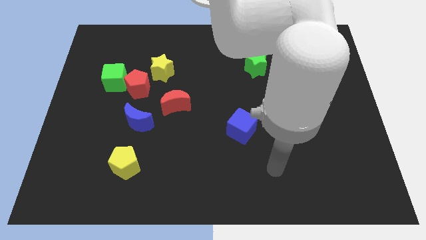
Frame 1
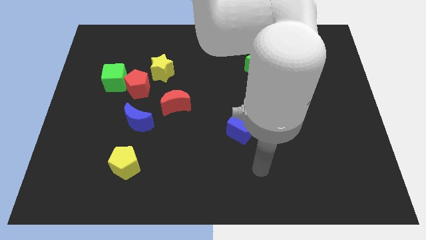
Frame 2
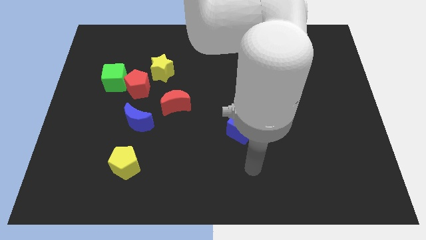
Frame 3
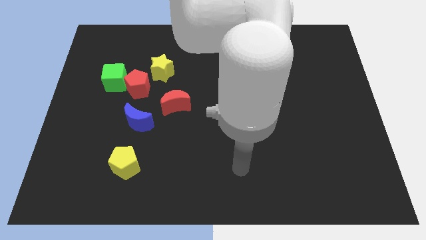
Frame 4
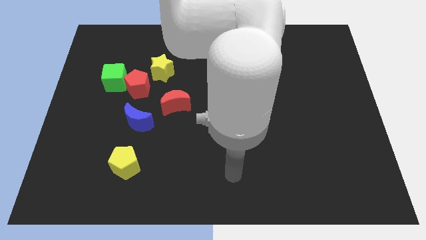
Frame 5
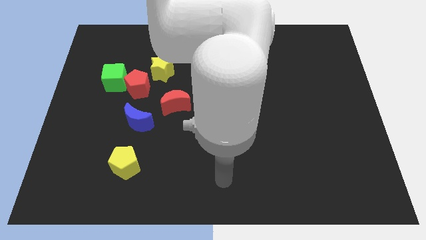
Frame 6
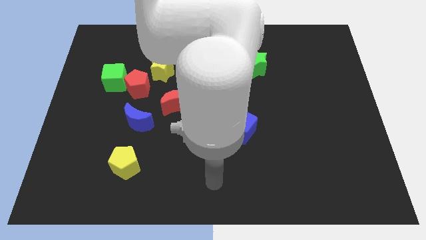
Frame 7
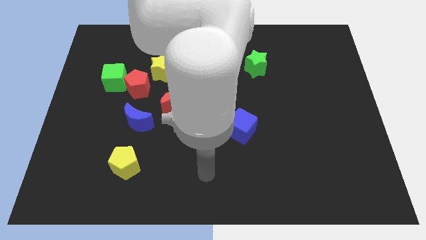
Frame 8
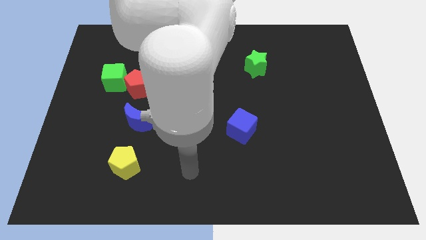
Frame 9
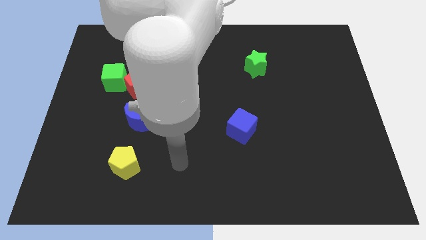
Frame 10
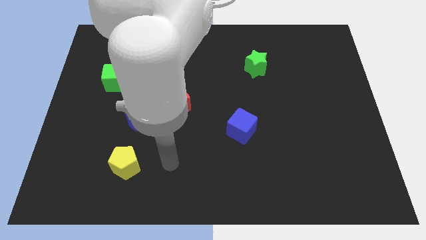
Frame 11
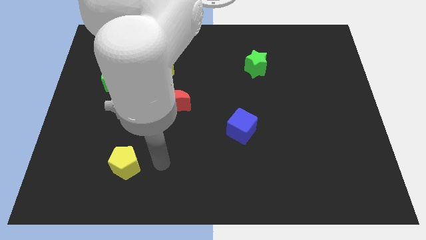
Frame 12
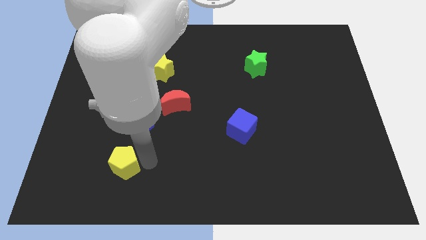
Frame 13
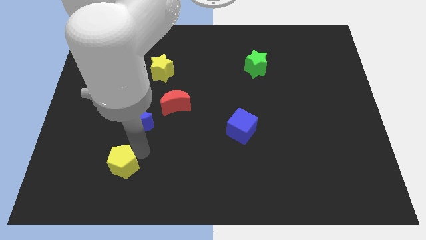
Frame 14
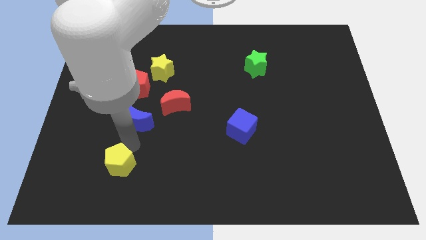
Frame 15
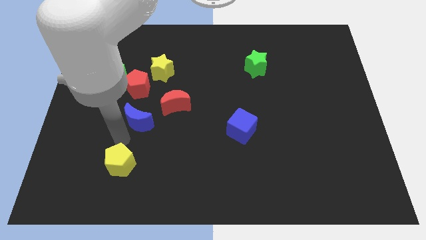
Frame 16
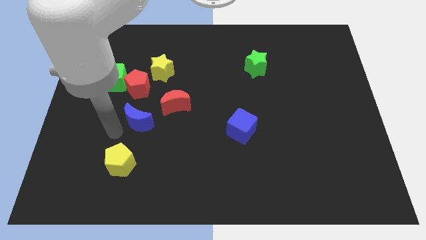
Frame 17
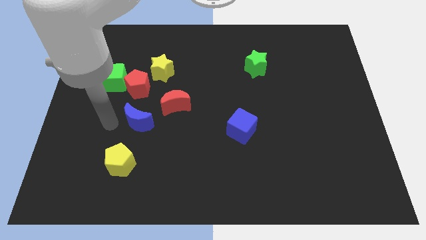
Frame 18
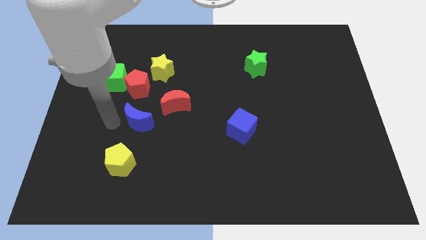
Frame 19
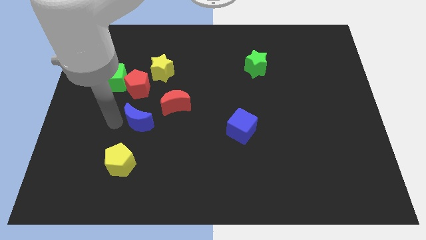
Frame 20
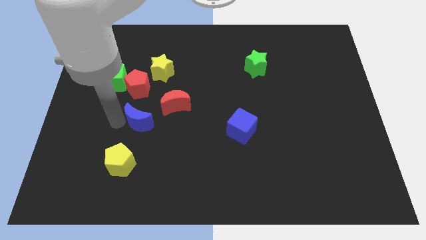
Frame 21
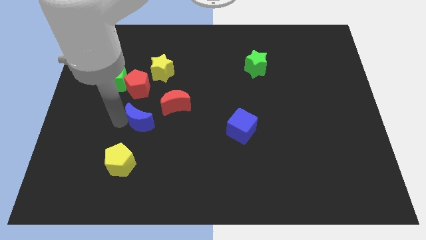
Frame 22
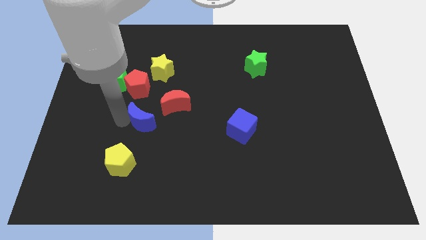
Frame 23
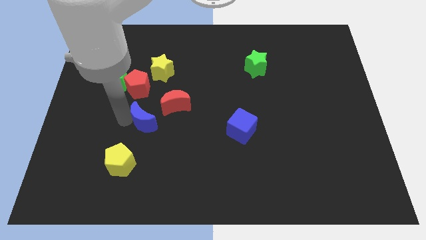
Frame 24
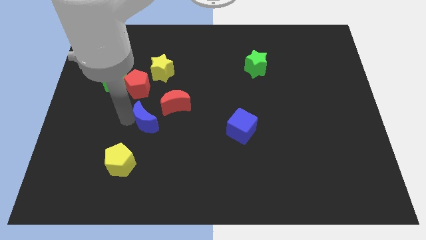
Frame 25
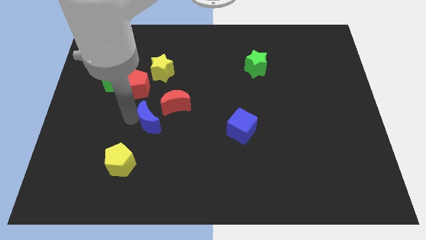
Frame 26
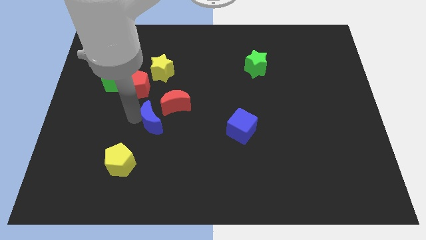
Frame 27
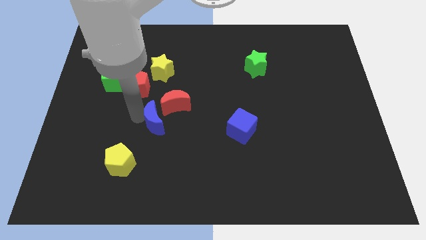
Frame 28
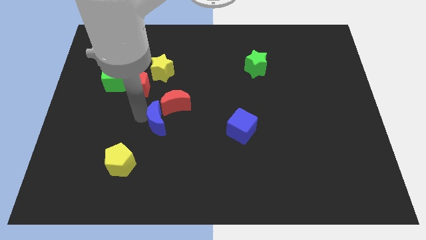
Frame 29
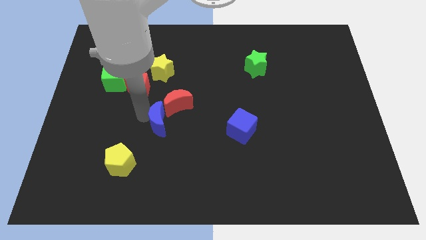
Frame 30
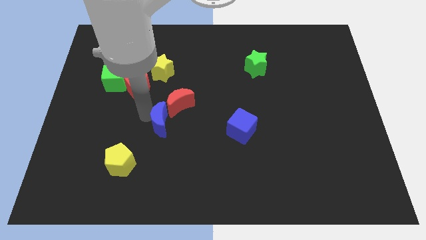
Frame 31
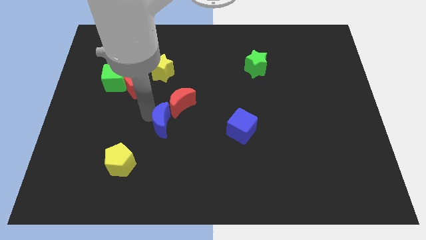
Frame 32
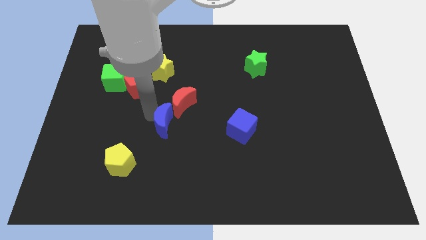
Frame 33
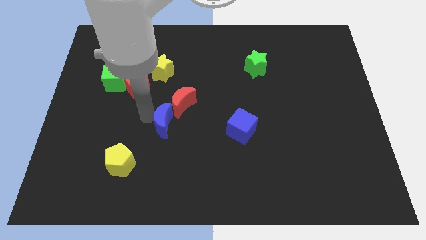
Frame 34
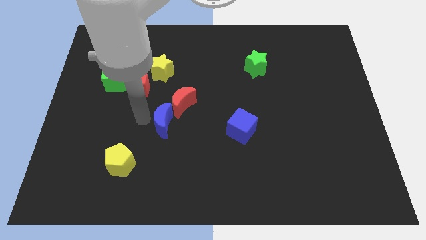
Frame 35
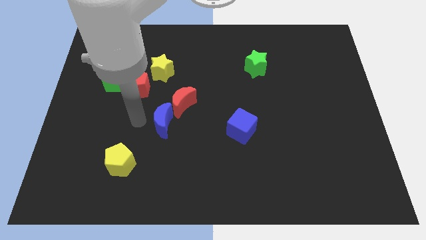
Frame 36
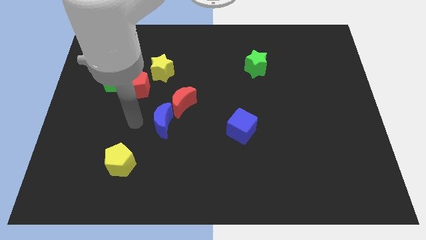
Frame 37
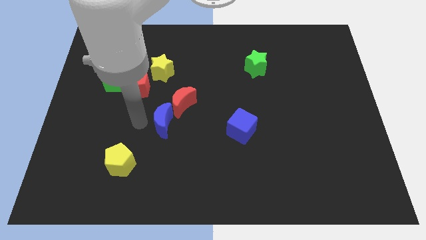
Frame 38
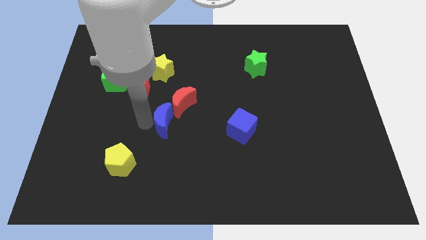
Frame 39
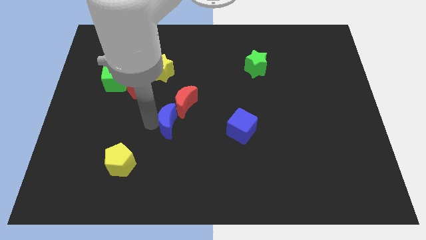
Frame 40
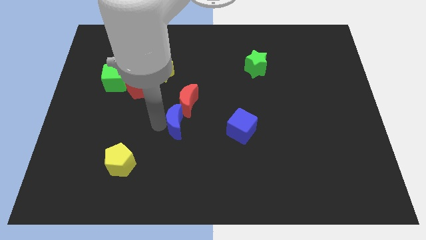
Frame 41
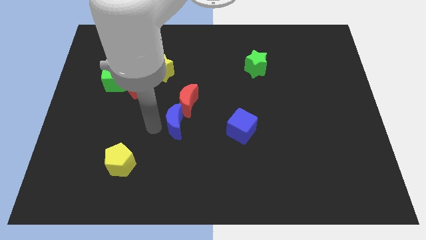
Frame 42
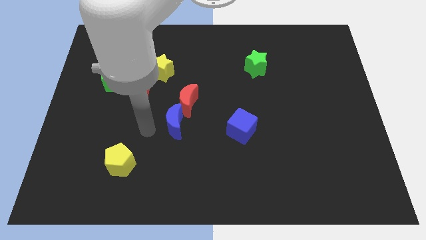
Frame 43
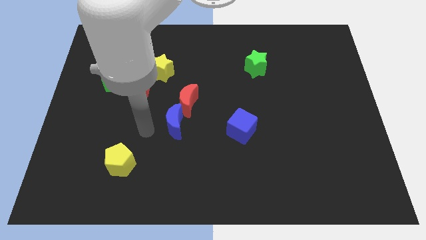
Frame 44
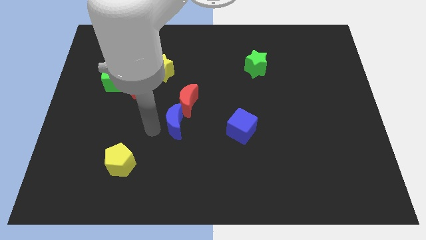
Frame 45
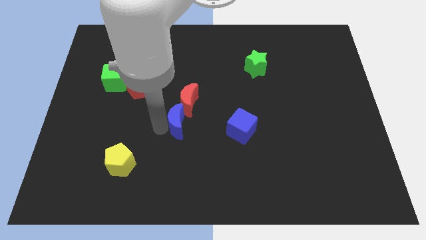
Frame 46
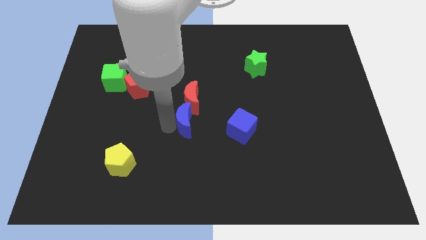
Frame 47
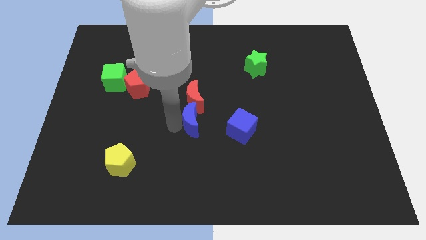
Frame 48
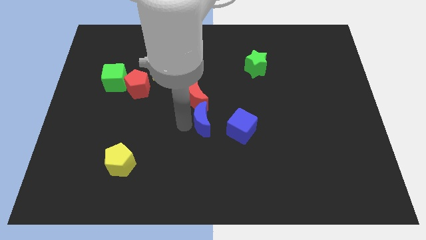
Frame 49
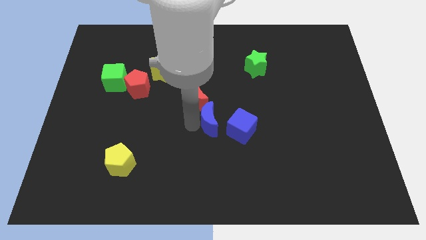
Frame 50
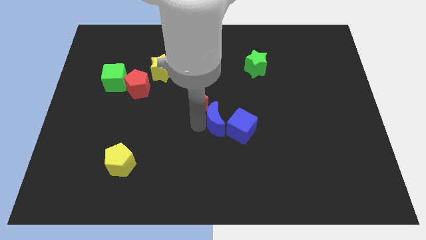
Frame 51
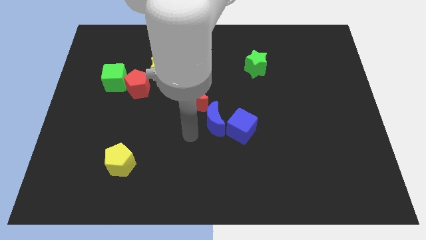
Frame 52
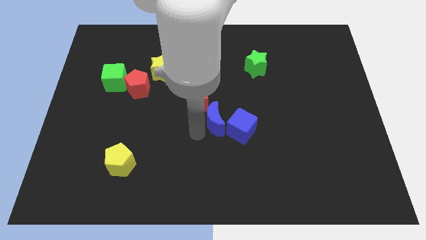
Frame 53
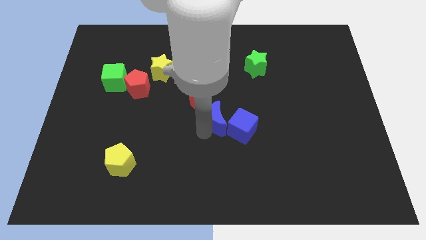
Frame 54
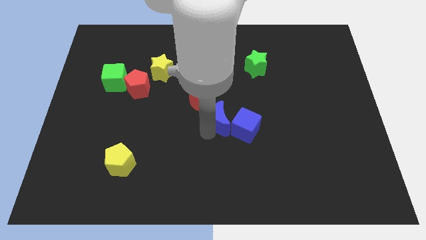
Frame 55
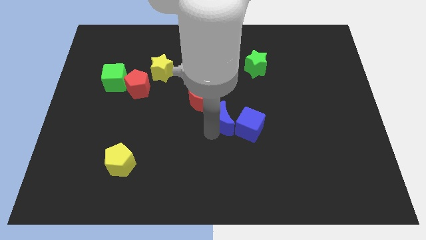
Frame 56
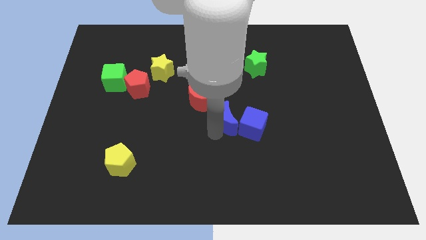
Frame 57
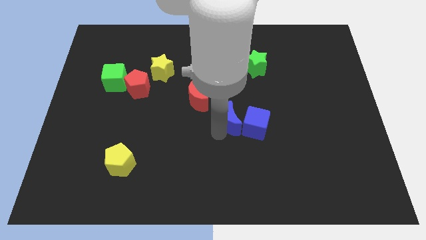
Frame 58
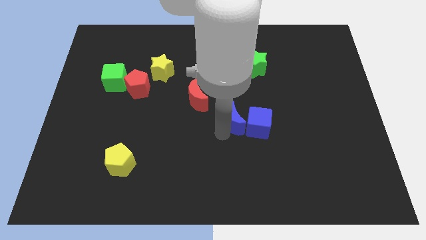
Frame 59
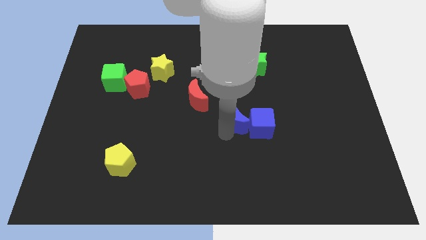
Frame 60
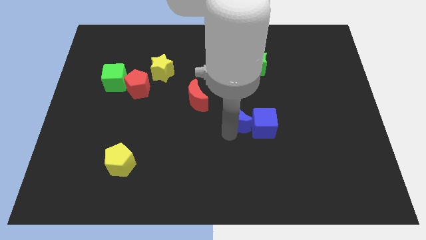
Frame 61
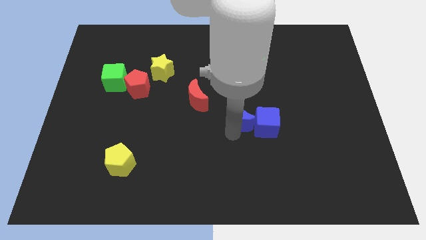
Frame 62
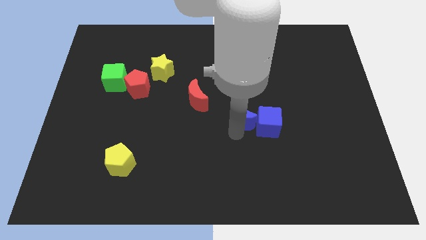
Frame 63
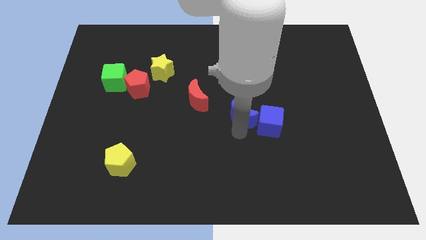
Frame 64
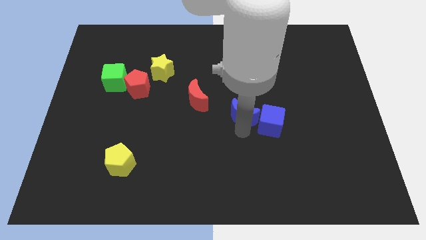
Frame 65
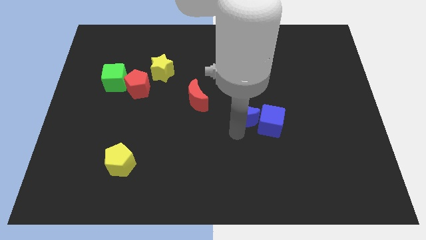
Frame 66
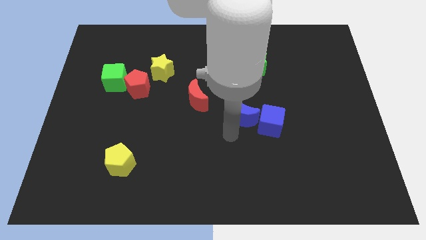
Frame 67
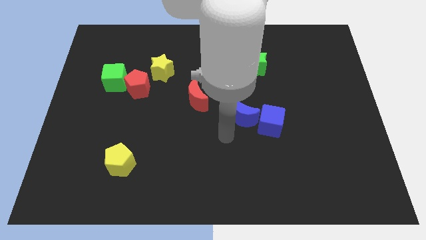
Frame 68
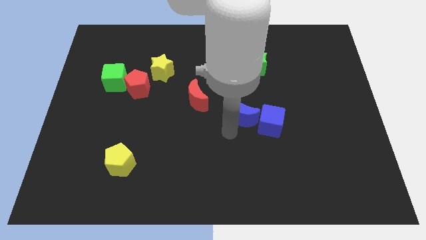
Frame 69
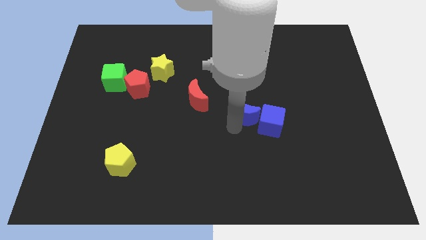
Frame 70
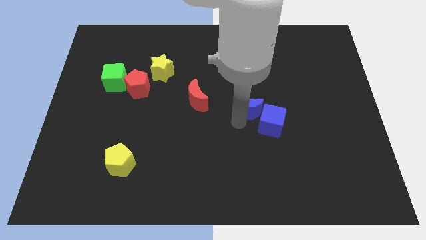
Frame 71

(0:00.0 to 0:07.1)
slide the blue moon below the green star

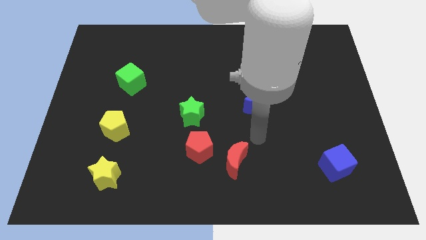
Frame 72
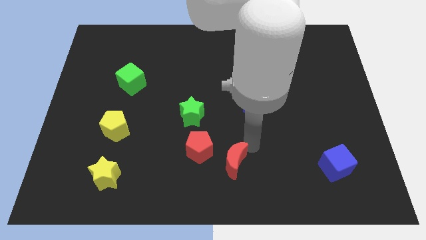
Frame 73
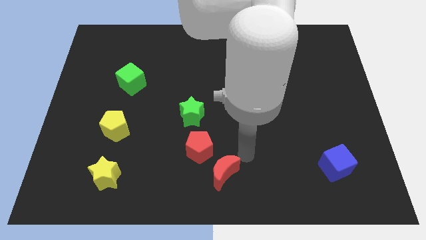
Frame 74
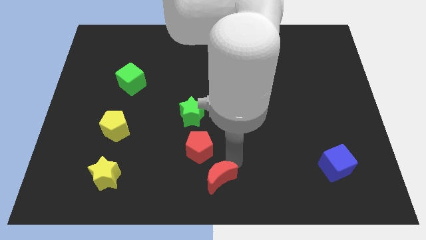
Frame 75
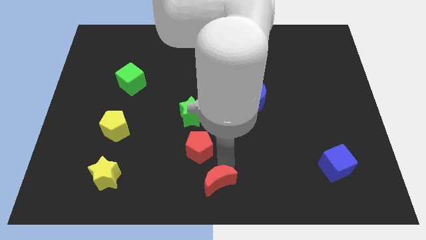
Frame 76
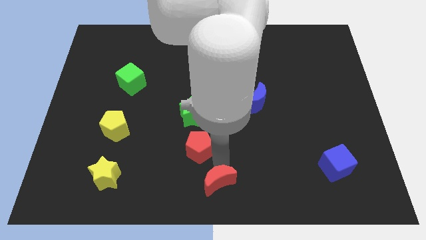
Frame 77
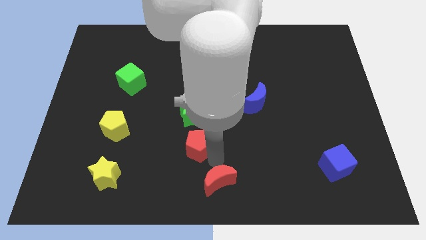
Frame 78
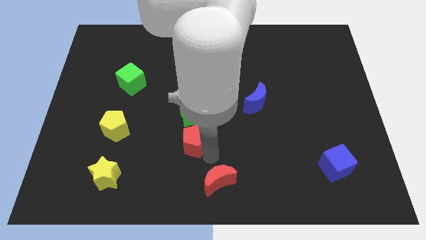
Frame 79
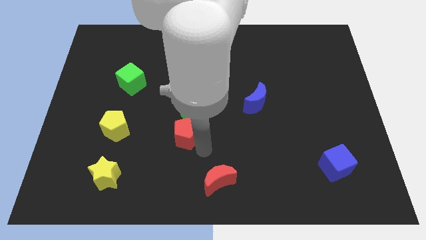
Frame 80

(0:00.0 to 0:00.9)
put the red pentagon just right of the yellow pentagon
